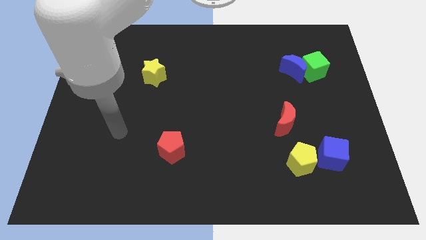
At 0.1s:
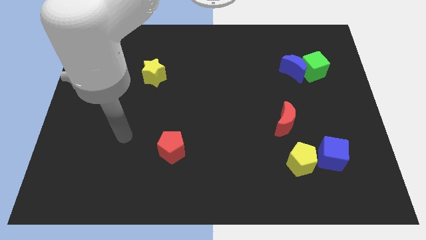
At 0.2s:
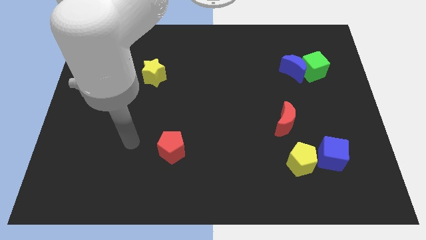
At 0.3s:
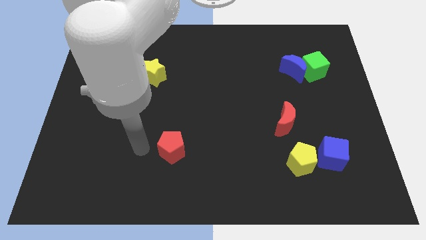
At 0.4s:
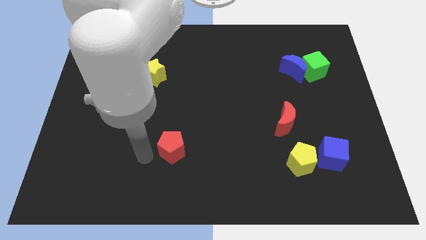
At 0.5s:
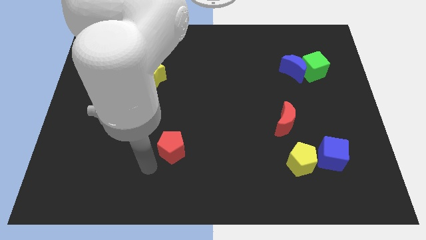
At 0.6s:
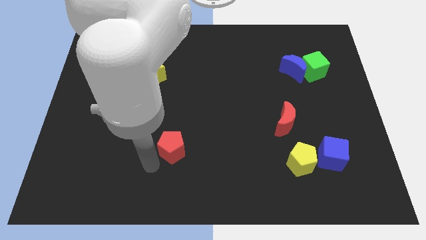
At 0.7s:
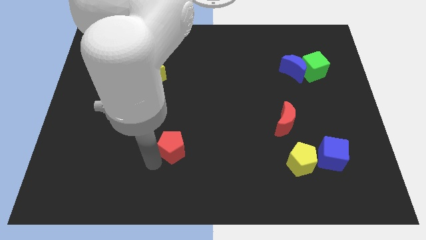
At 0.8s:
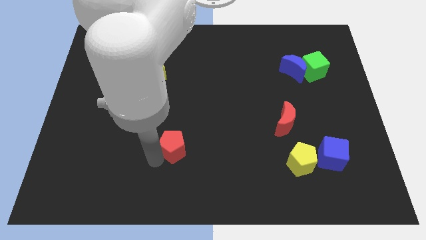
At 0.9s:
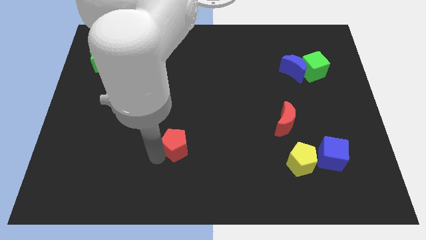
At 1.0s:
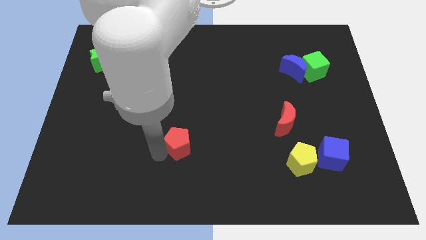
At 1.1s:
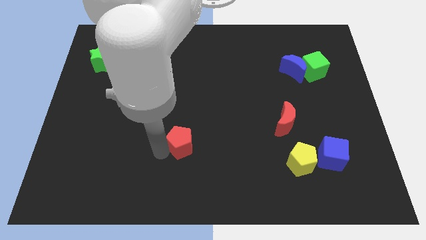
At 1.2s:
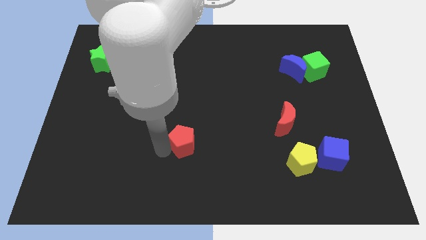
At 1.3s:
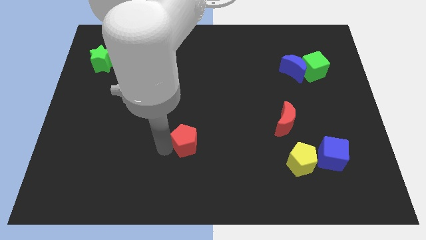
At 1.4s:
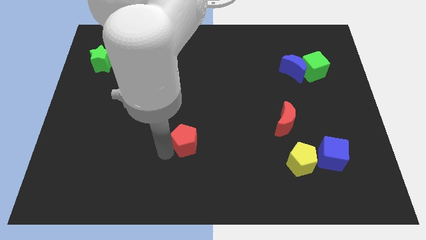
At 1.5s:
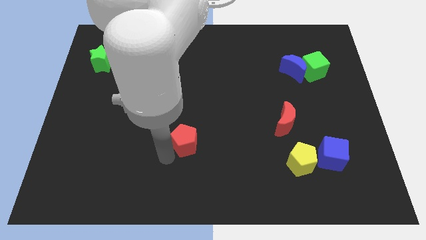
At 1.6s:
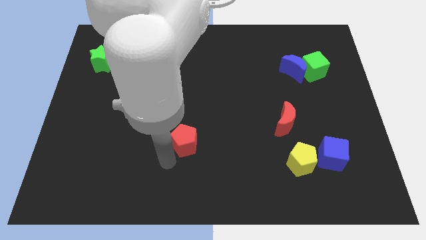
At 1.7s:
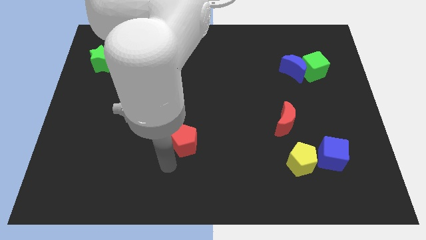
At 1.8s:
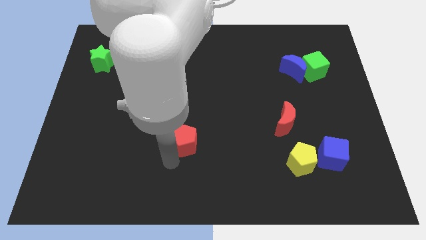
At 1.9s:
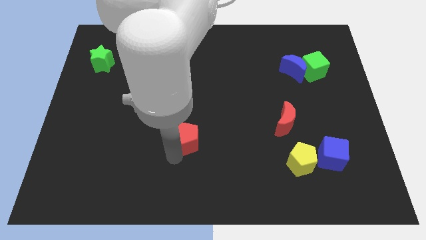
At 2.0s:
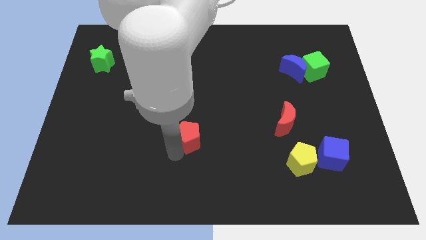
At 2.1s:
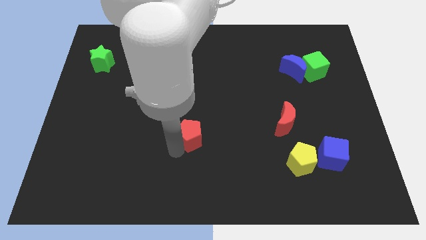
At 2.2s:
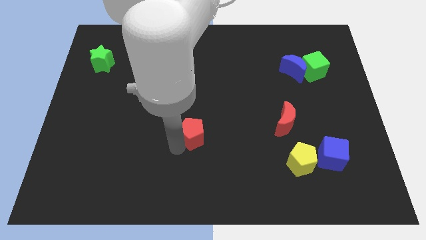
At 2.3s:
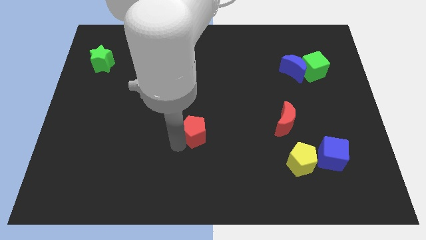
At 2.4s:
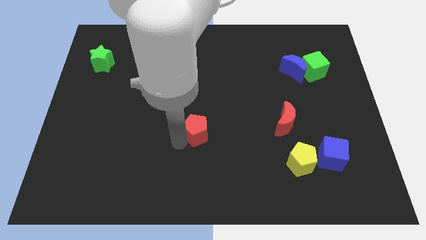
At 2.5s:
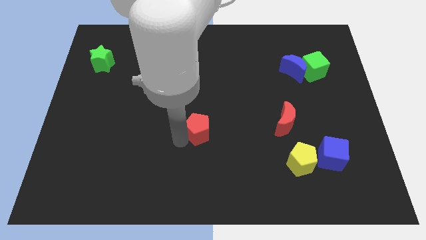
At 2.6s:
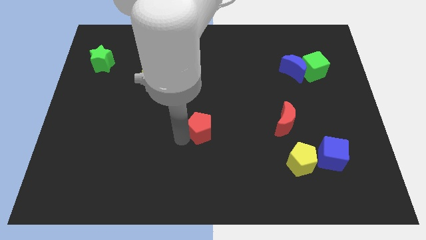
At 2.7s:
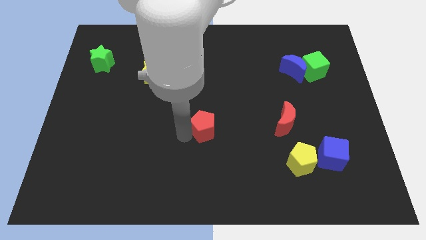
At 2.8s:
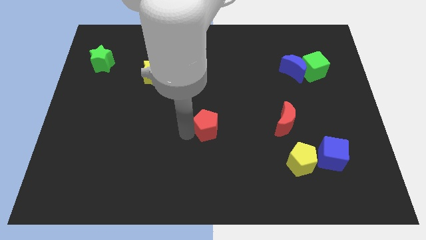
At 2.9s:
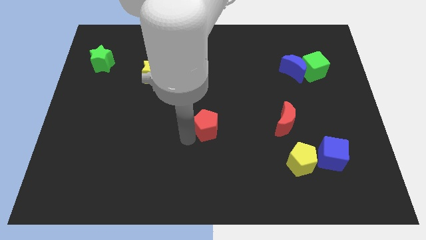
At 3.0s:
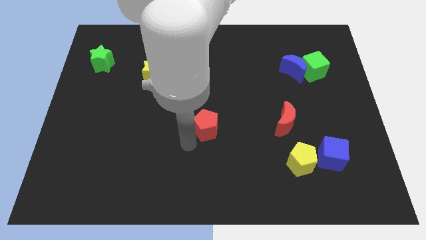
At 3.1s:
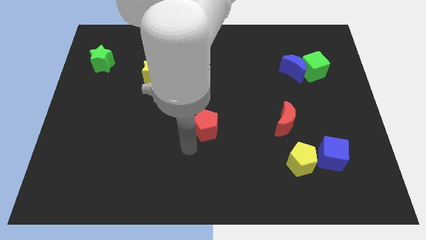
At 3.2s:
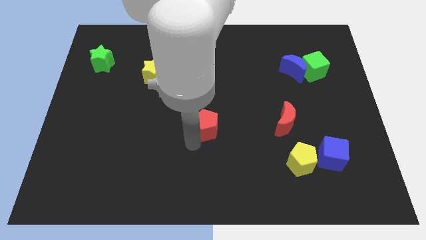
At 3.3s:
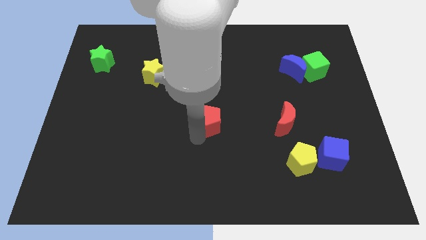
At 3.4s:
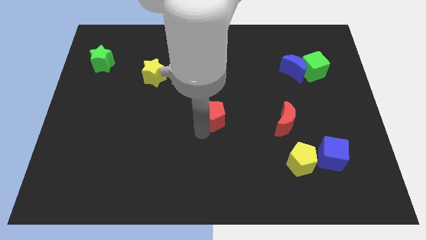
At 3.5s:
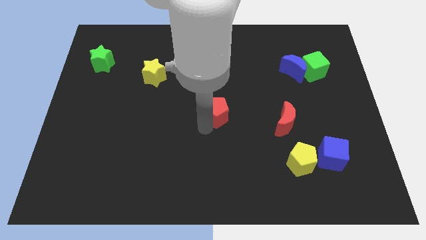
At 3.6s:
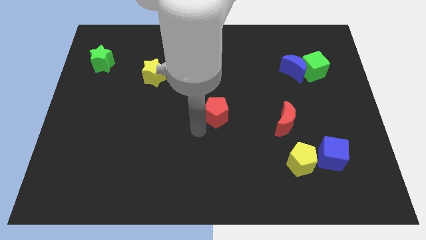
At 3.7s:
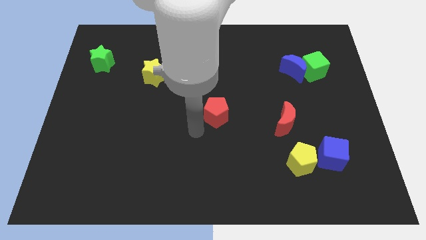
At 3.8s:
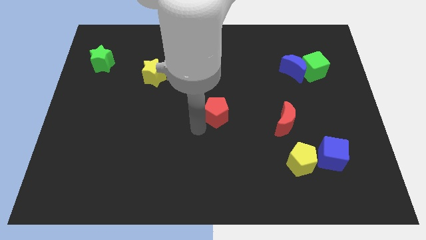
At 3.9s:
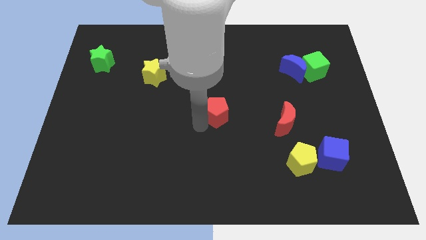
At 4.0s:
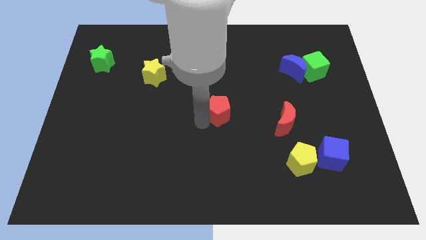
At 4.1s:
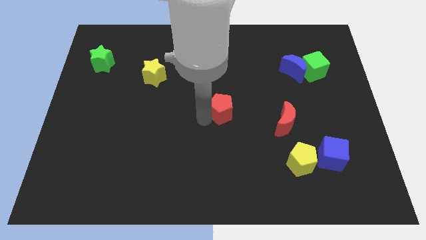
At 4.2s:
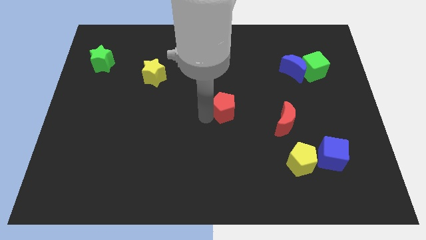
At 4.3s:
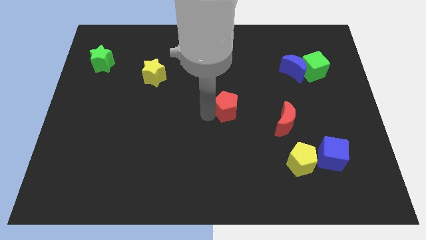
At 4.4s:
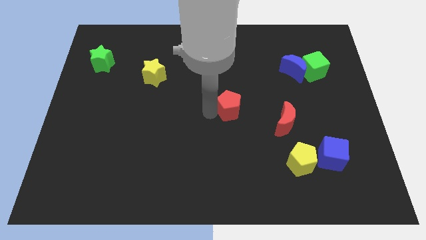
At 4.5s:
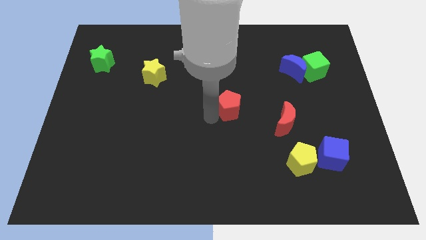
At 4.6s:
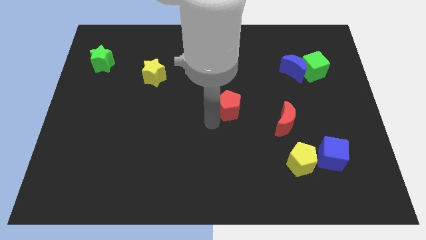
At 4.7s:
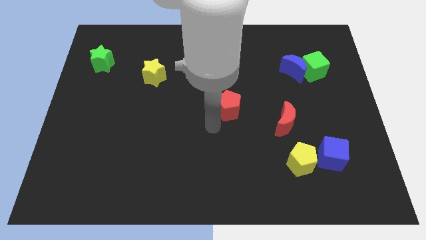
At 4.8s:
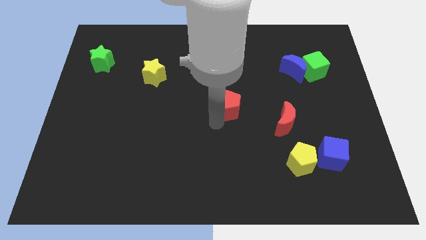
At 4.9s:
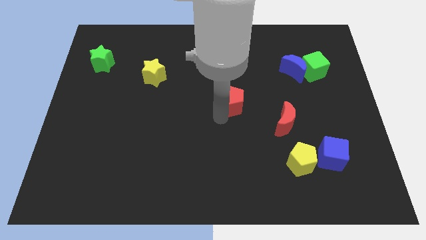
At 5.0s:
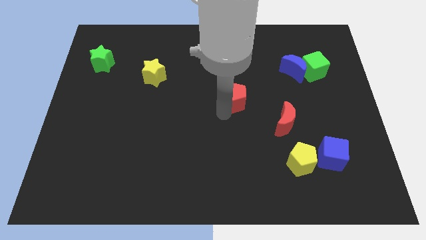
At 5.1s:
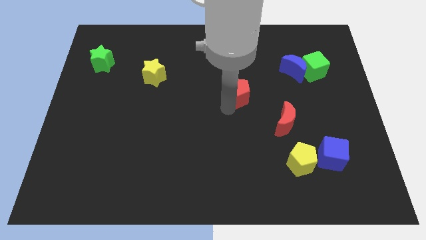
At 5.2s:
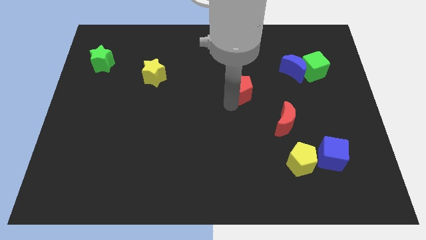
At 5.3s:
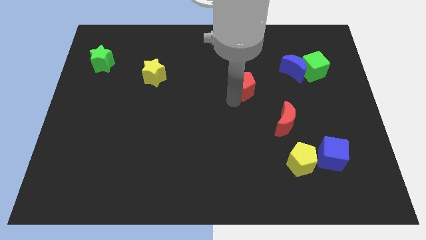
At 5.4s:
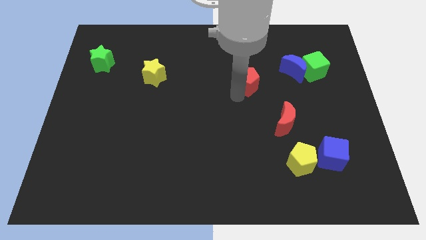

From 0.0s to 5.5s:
move the red pentagon to the left side of the blue moon

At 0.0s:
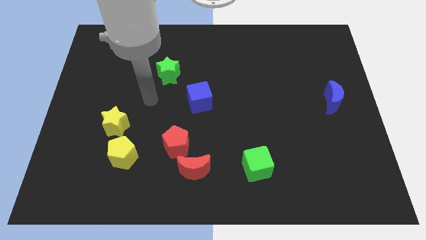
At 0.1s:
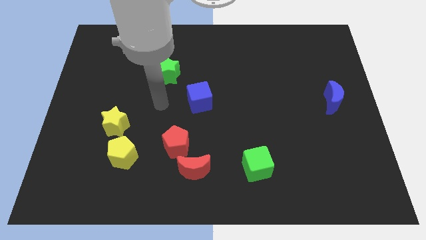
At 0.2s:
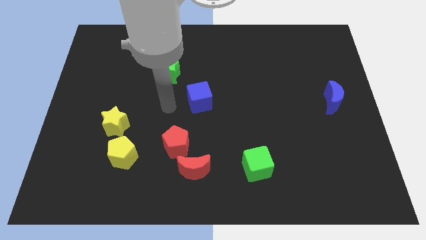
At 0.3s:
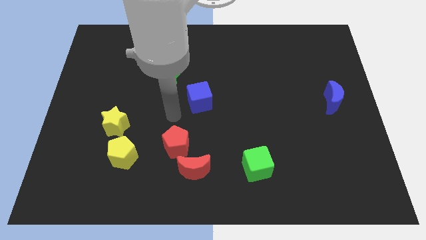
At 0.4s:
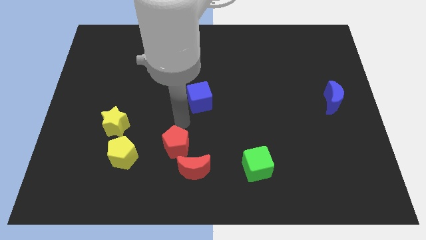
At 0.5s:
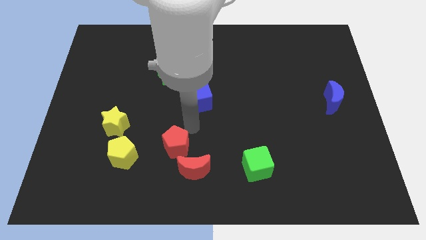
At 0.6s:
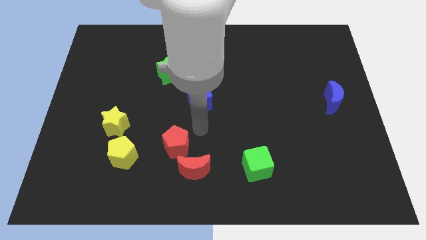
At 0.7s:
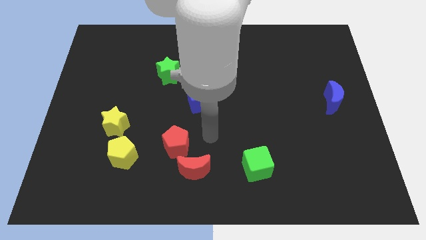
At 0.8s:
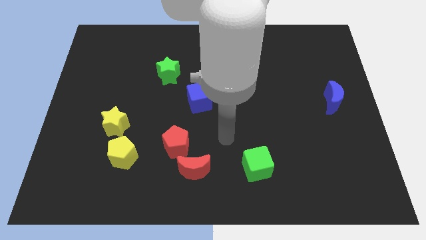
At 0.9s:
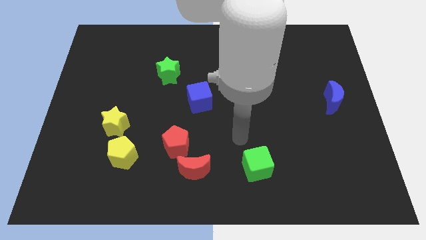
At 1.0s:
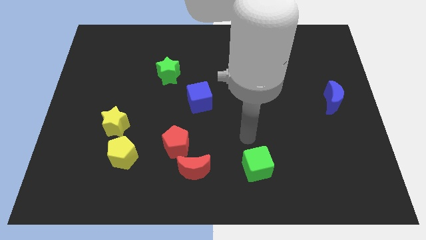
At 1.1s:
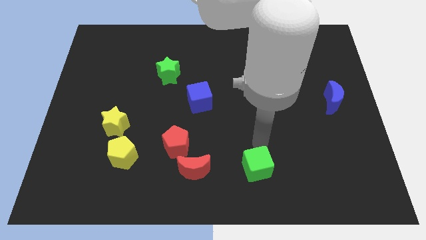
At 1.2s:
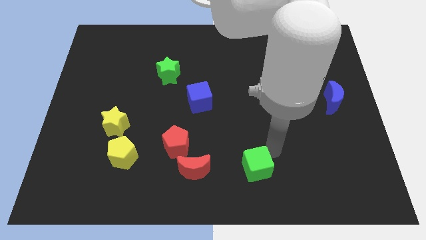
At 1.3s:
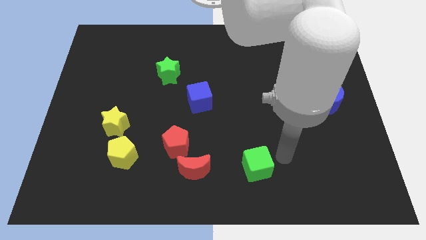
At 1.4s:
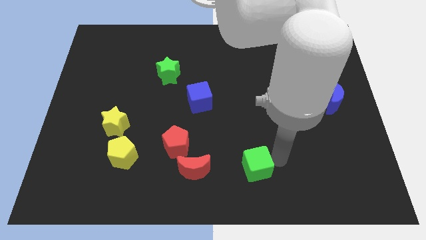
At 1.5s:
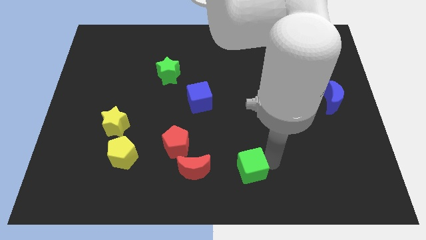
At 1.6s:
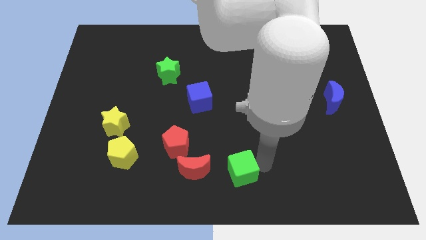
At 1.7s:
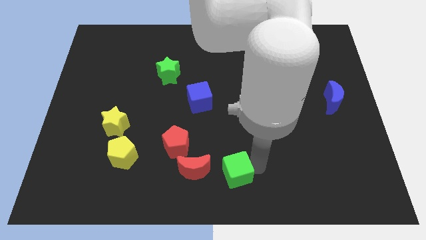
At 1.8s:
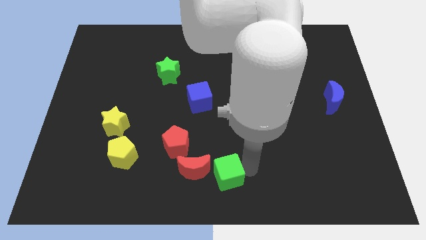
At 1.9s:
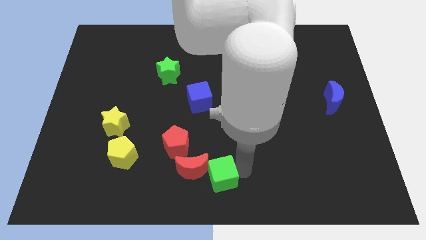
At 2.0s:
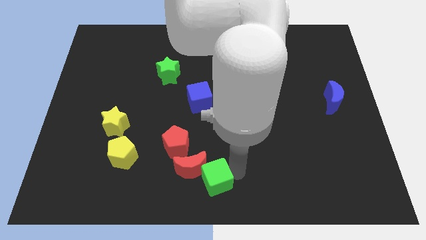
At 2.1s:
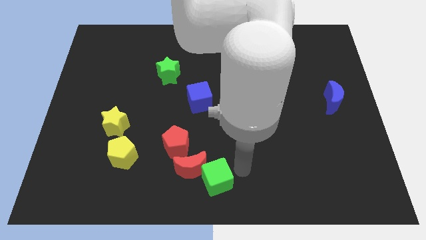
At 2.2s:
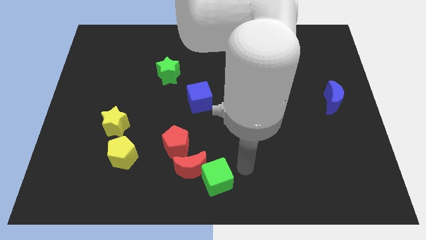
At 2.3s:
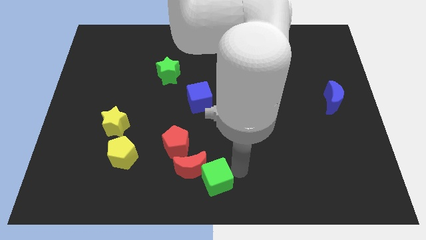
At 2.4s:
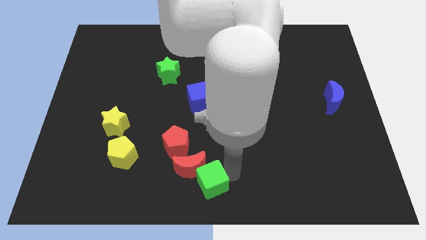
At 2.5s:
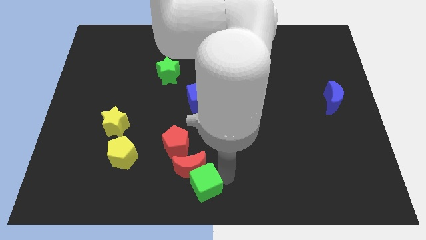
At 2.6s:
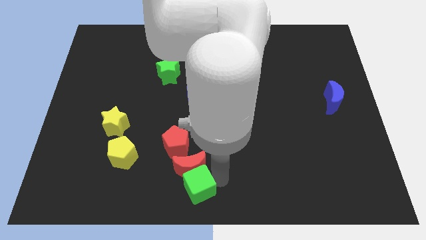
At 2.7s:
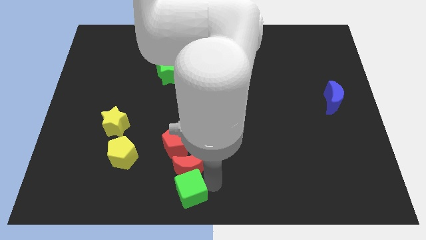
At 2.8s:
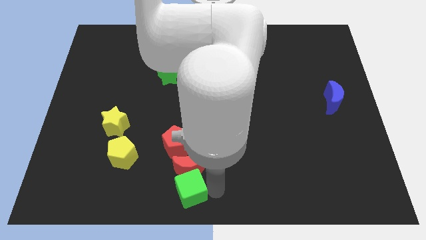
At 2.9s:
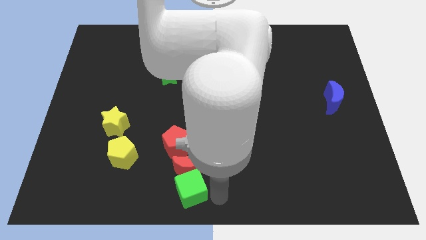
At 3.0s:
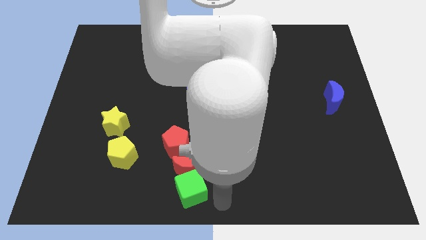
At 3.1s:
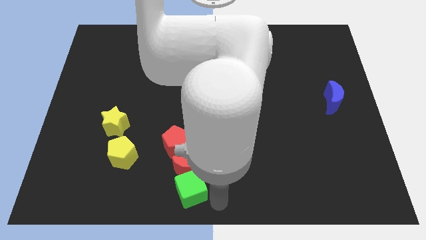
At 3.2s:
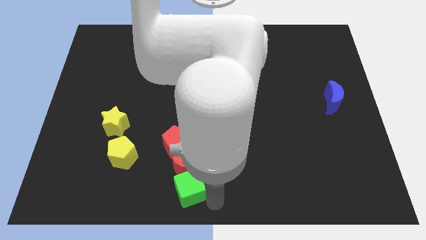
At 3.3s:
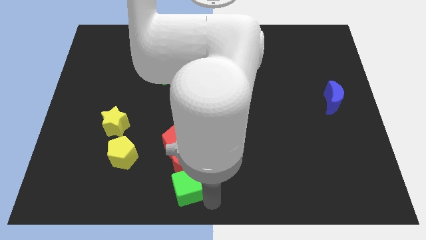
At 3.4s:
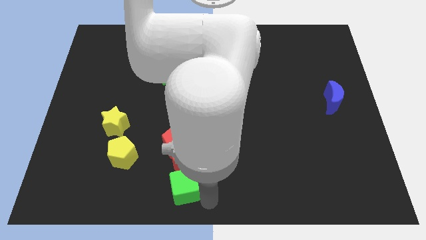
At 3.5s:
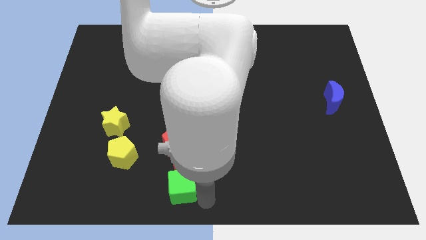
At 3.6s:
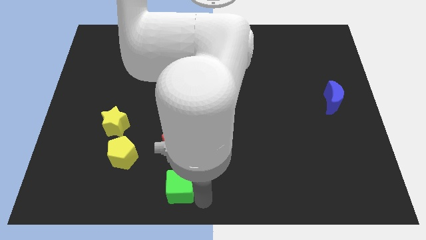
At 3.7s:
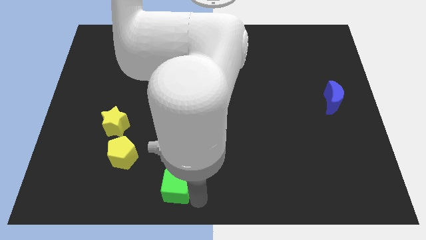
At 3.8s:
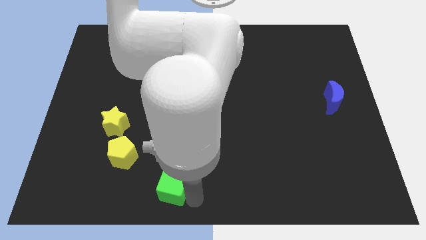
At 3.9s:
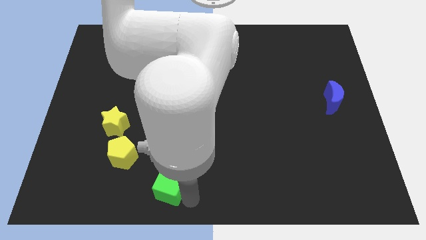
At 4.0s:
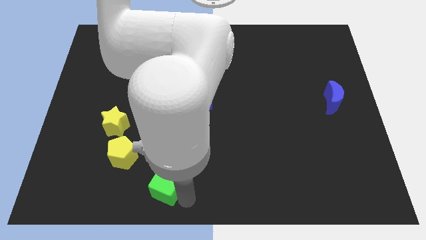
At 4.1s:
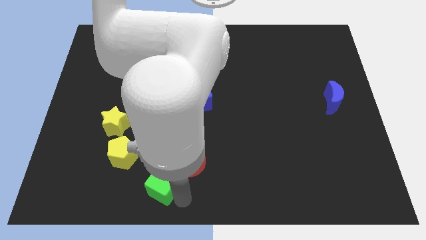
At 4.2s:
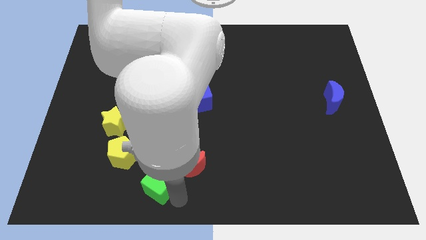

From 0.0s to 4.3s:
push the green cube diagonally down and to the left of the red pentagon
